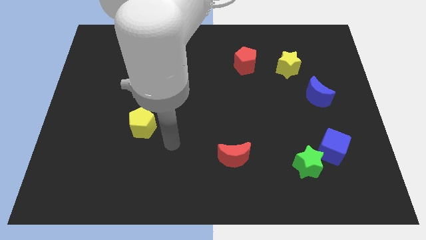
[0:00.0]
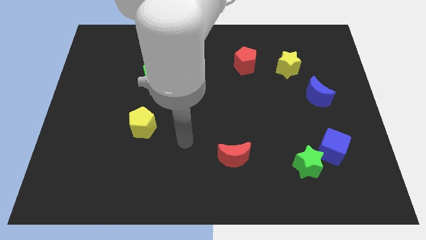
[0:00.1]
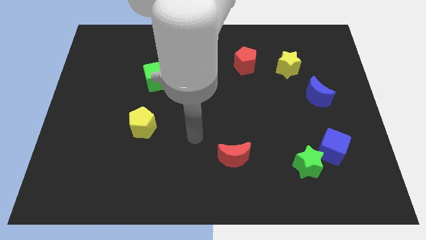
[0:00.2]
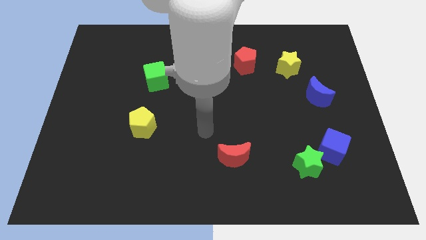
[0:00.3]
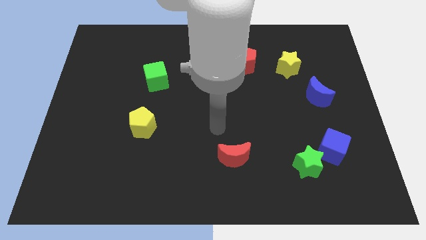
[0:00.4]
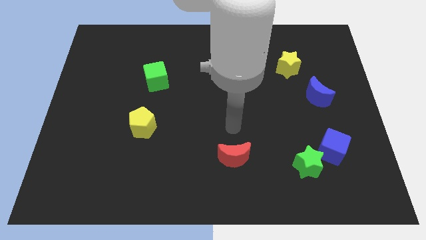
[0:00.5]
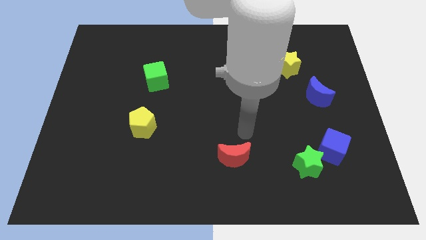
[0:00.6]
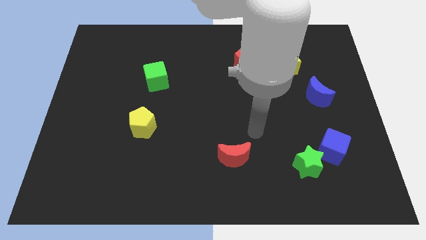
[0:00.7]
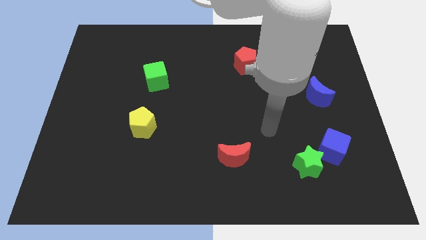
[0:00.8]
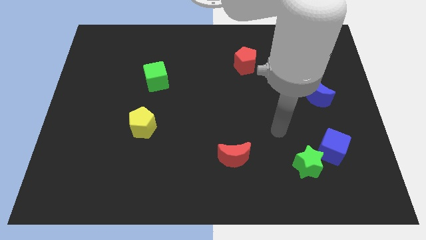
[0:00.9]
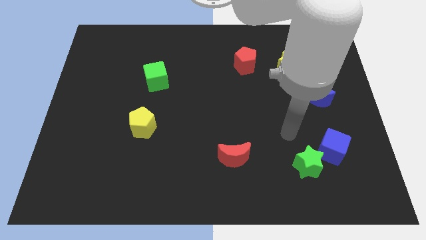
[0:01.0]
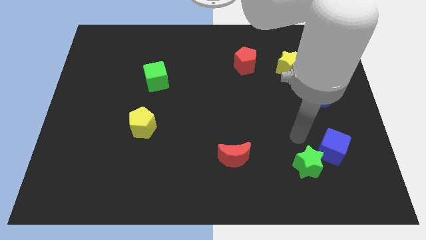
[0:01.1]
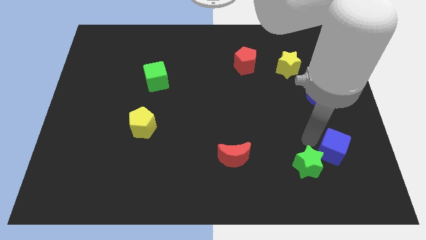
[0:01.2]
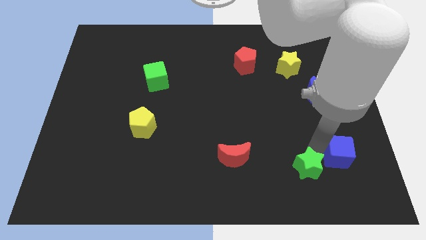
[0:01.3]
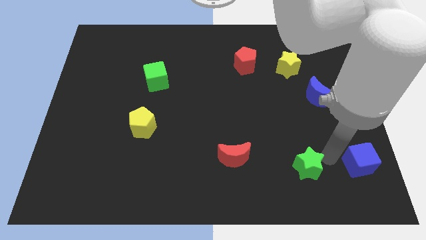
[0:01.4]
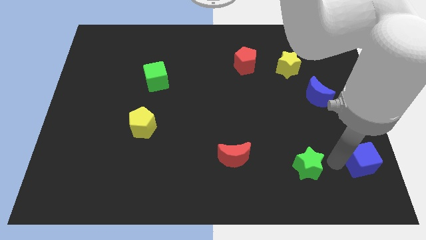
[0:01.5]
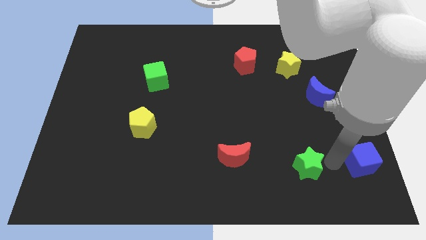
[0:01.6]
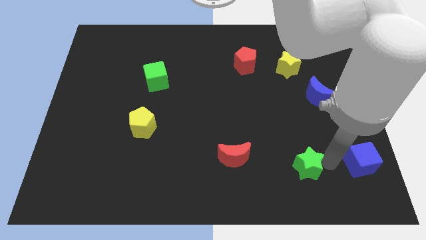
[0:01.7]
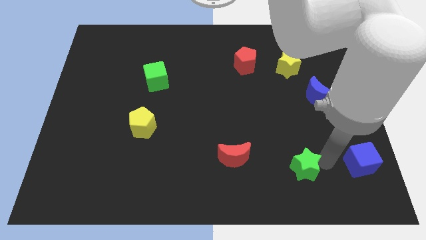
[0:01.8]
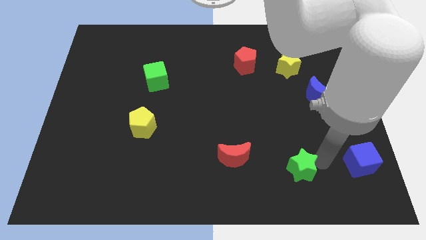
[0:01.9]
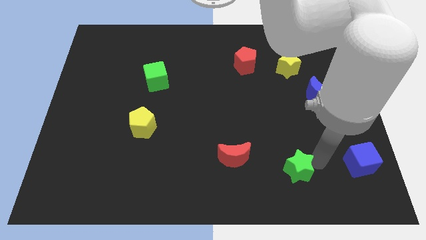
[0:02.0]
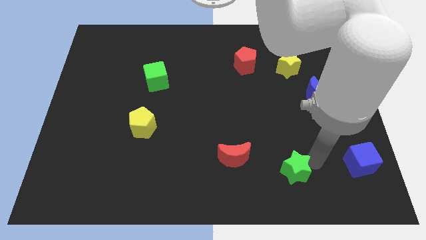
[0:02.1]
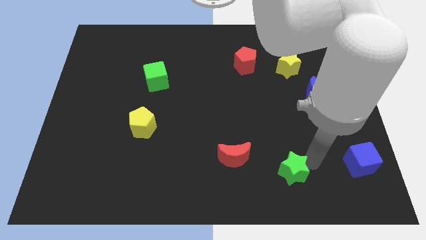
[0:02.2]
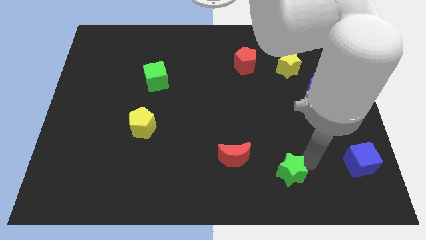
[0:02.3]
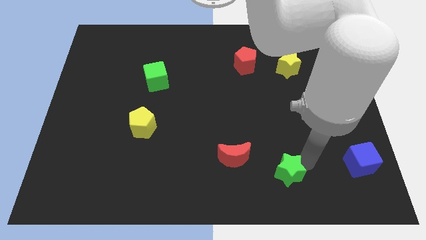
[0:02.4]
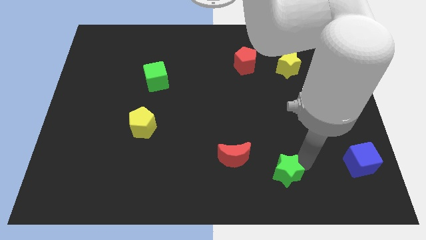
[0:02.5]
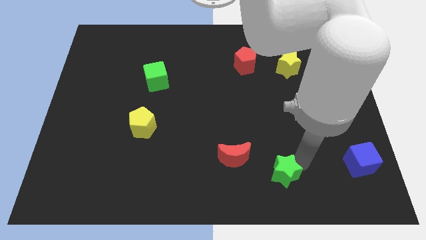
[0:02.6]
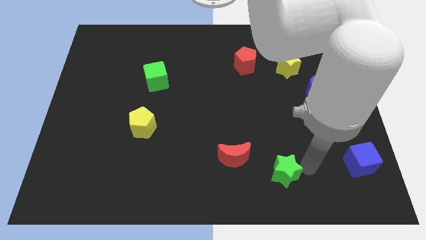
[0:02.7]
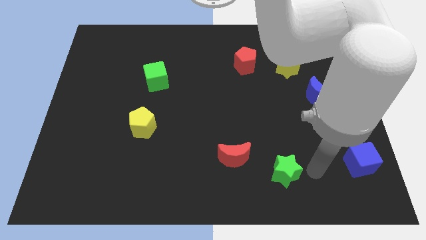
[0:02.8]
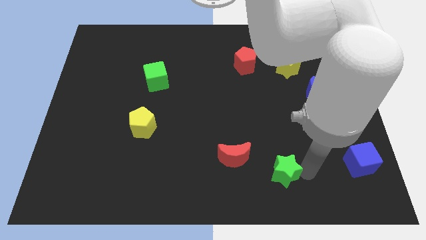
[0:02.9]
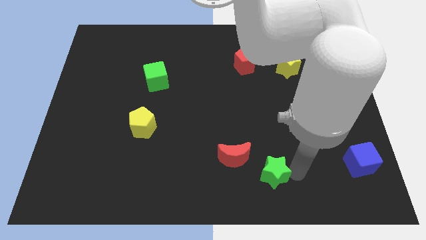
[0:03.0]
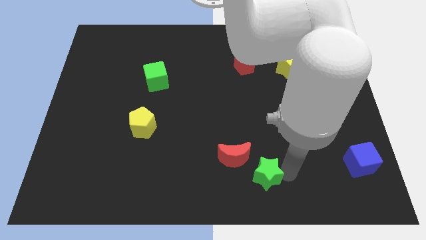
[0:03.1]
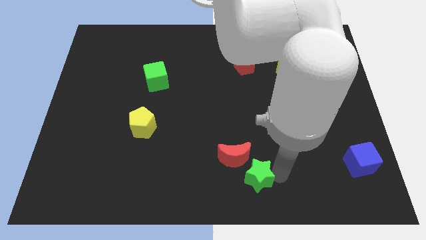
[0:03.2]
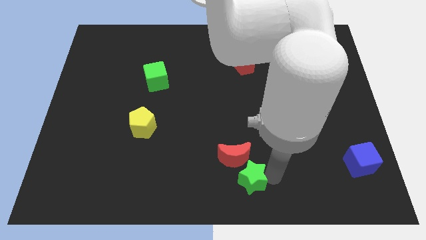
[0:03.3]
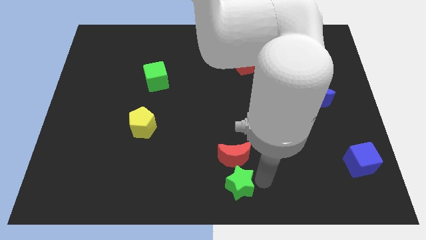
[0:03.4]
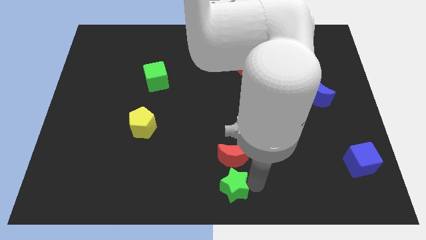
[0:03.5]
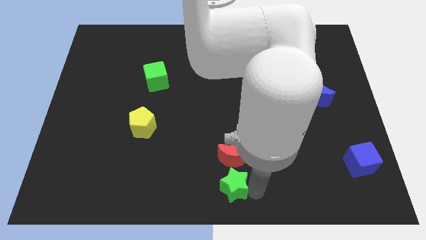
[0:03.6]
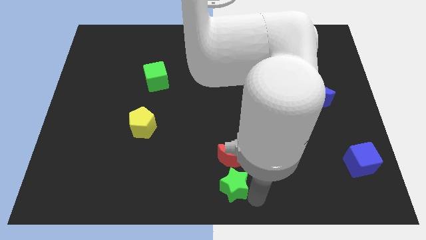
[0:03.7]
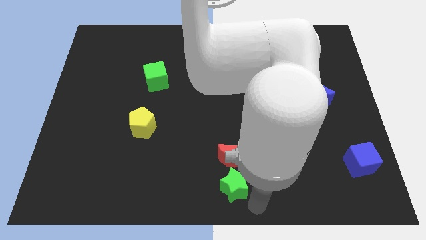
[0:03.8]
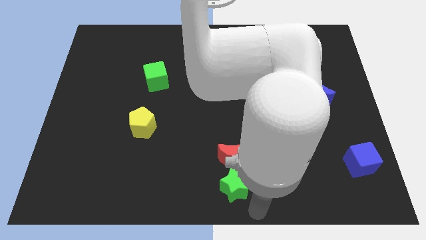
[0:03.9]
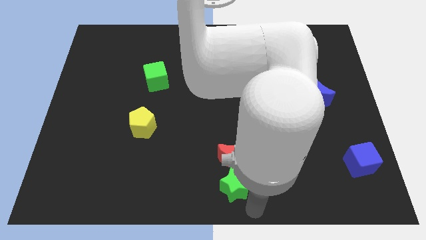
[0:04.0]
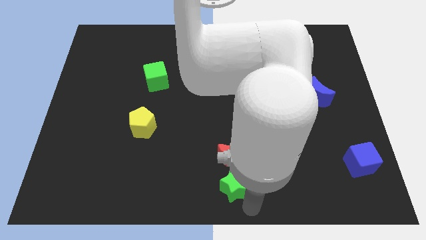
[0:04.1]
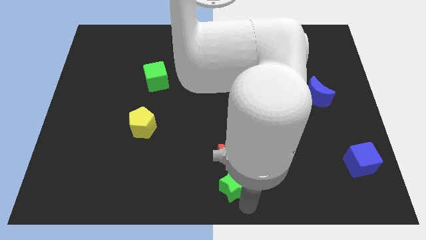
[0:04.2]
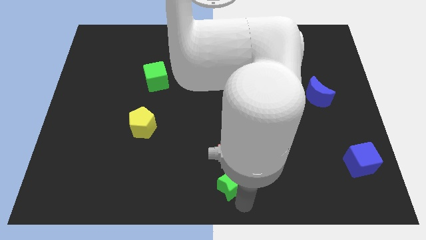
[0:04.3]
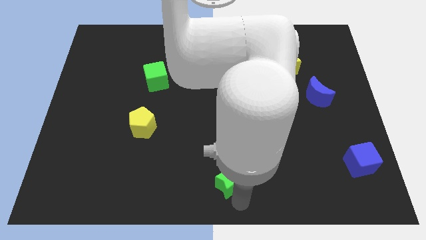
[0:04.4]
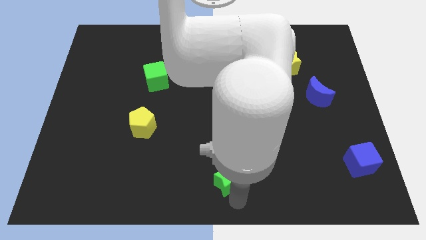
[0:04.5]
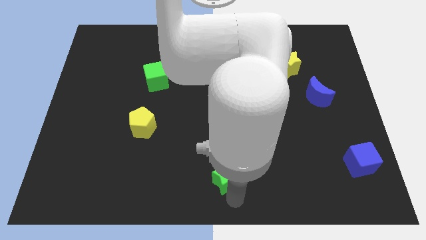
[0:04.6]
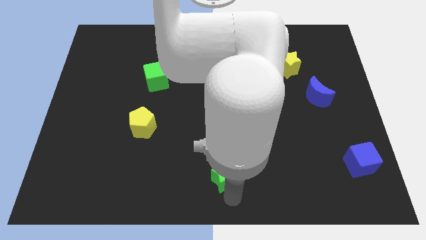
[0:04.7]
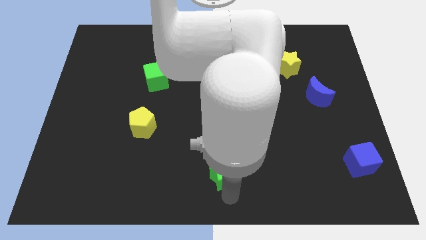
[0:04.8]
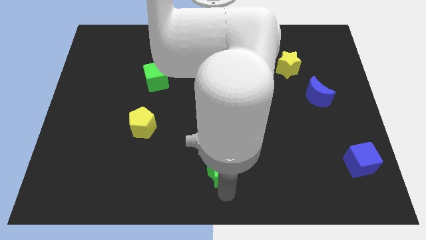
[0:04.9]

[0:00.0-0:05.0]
slide the green star left of the red moon

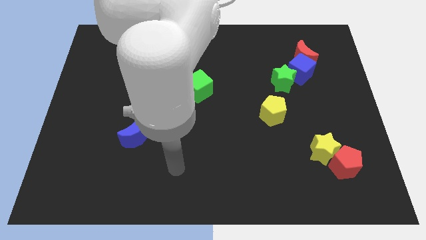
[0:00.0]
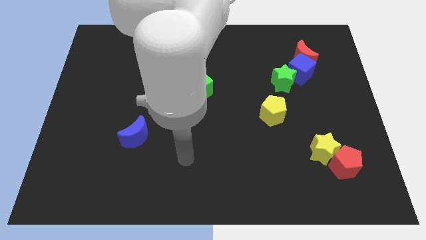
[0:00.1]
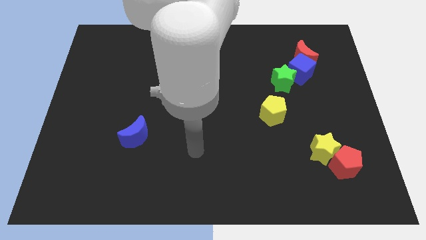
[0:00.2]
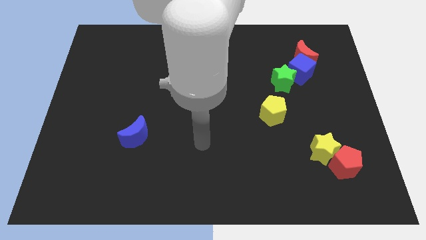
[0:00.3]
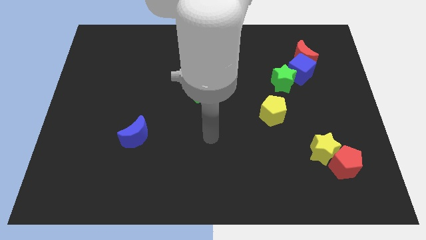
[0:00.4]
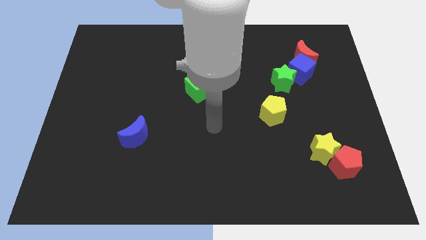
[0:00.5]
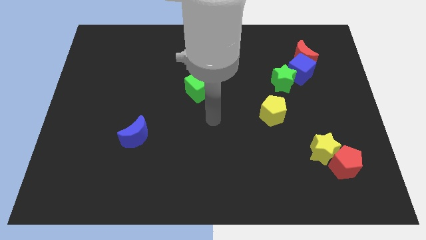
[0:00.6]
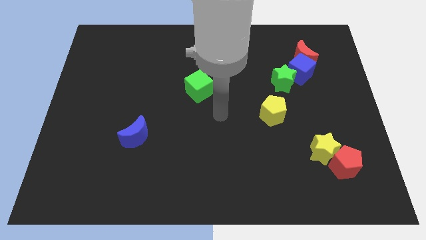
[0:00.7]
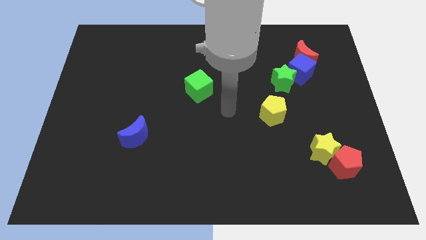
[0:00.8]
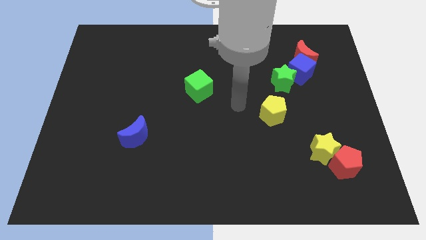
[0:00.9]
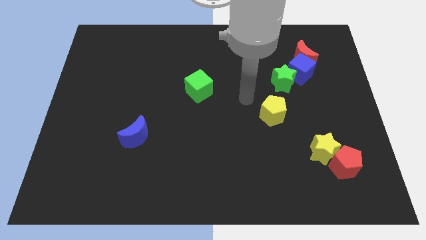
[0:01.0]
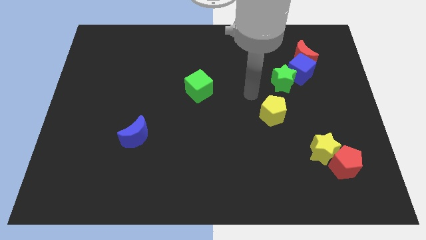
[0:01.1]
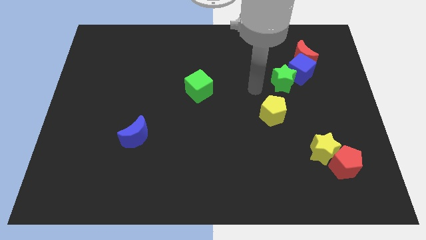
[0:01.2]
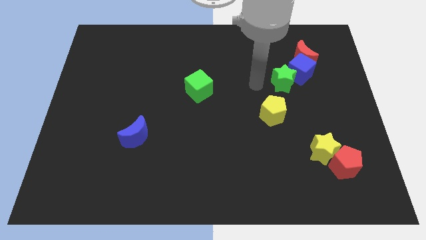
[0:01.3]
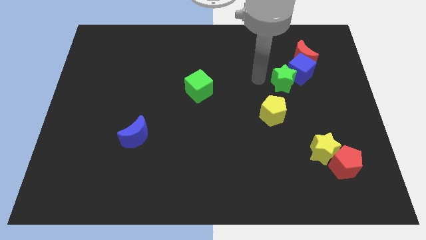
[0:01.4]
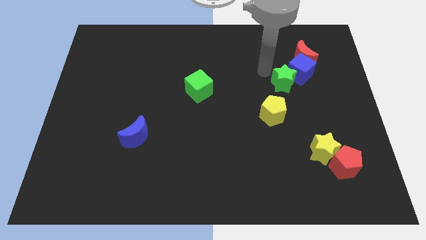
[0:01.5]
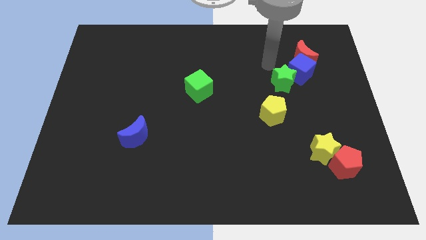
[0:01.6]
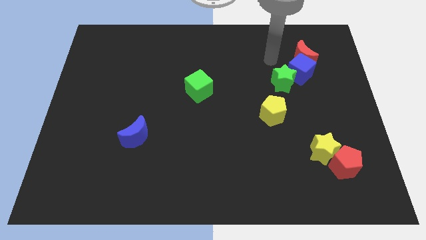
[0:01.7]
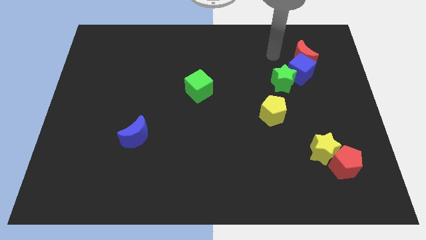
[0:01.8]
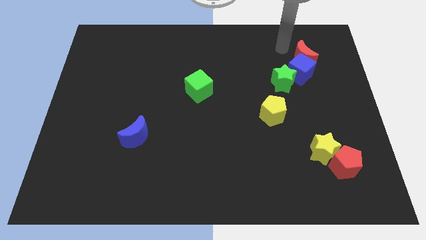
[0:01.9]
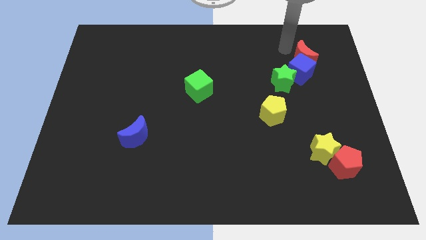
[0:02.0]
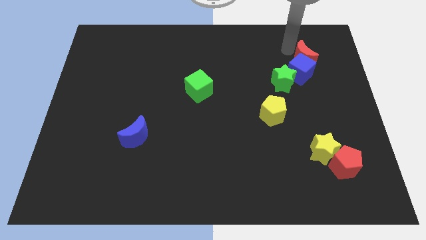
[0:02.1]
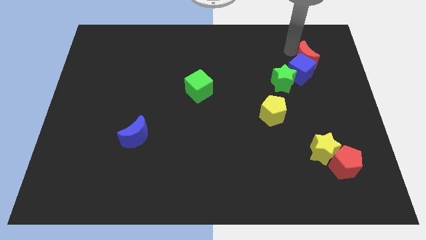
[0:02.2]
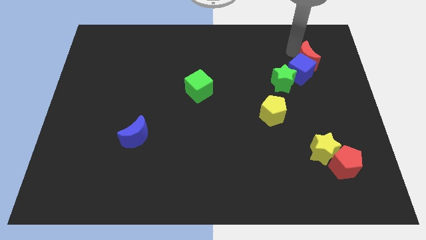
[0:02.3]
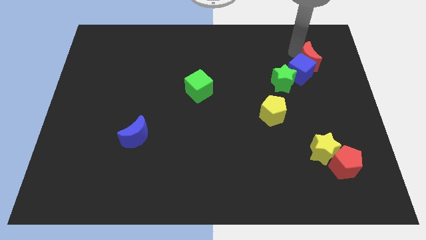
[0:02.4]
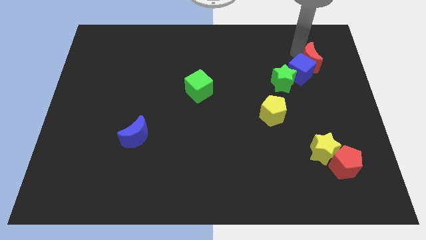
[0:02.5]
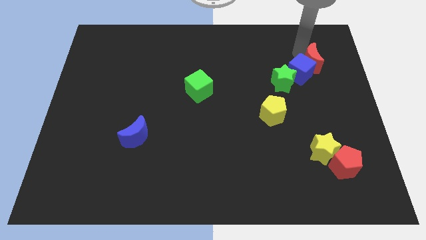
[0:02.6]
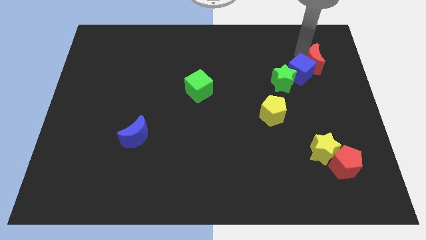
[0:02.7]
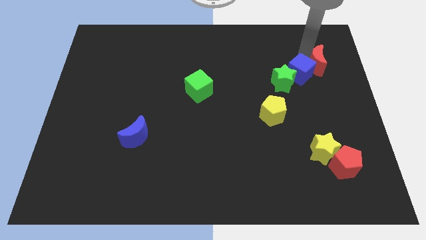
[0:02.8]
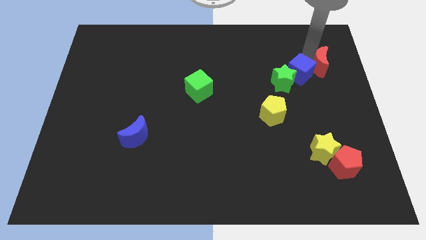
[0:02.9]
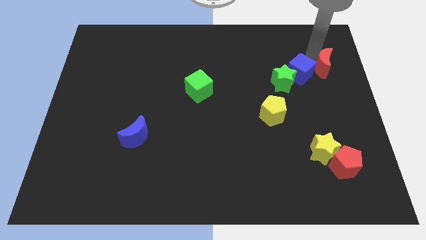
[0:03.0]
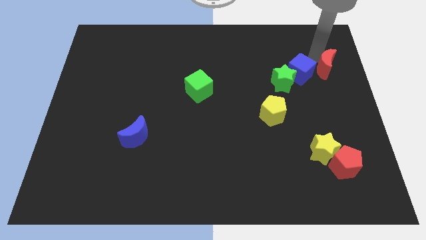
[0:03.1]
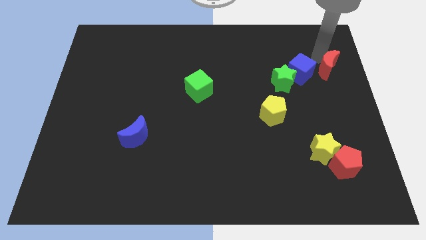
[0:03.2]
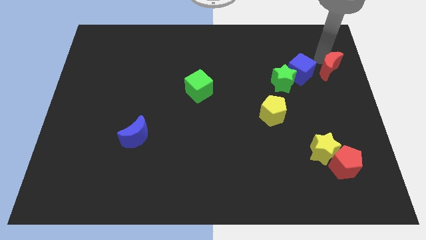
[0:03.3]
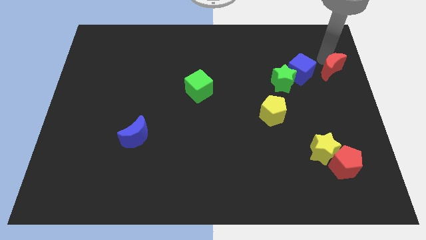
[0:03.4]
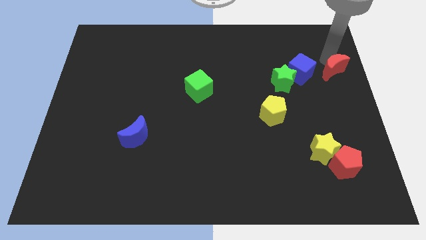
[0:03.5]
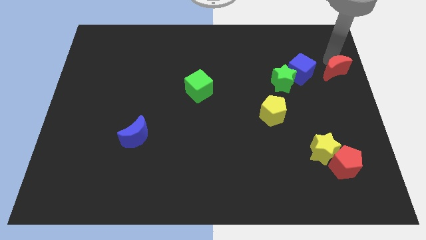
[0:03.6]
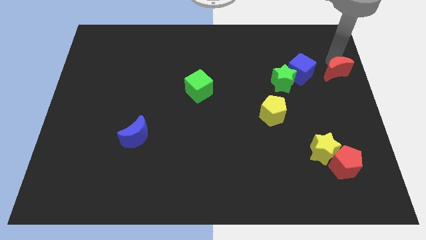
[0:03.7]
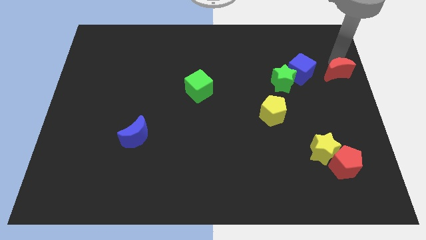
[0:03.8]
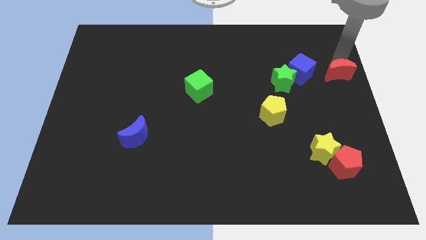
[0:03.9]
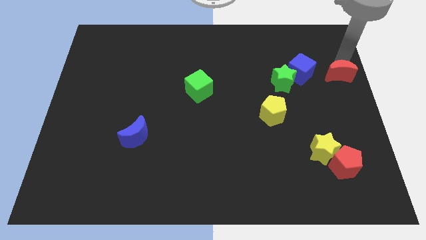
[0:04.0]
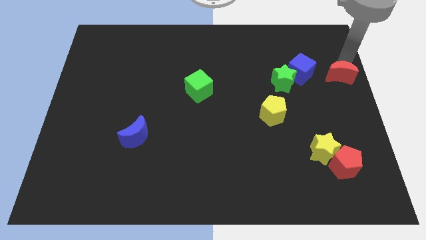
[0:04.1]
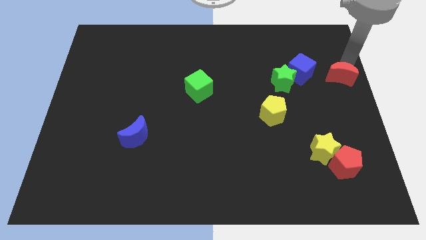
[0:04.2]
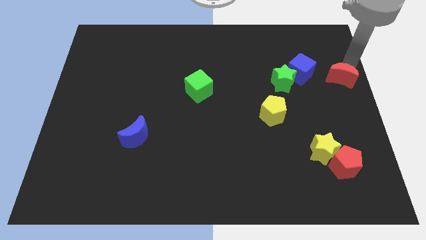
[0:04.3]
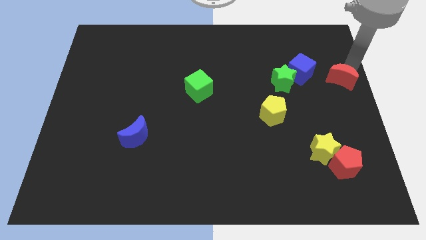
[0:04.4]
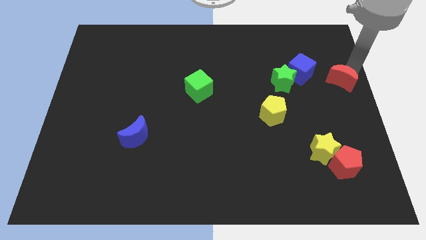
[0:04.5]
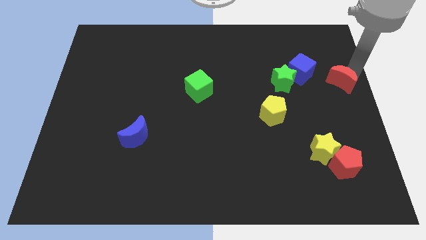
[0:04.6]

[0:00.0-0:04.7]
move the red moon to the bottom right of the blue cube
